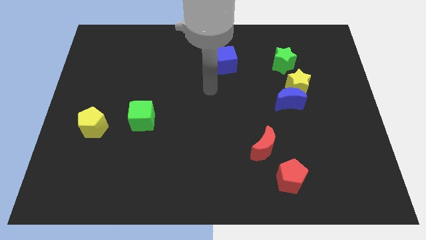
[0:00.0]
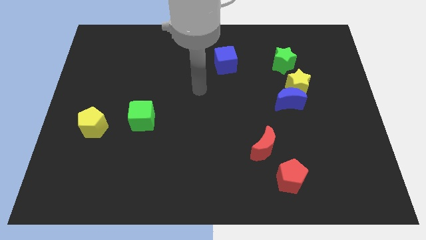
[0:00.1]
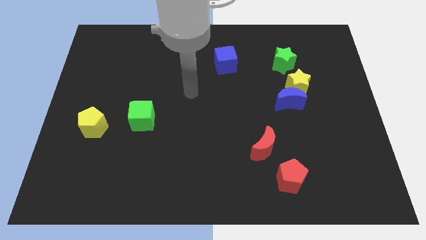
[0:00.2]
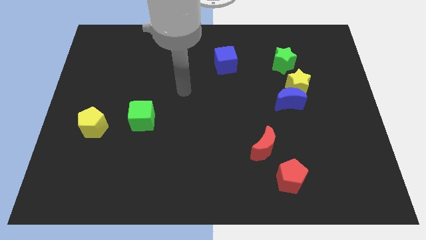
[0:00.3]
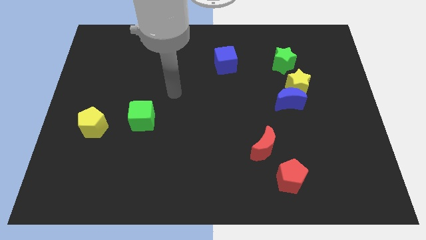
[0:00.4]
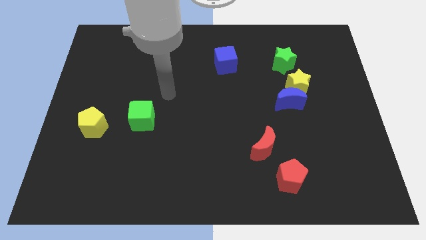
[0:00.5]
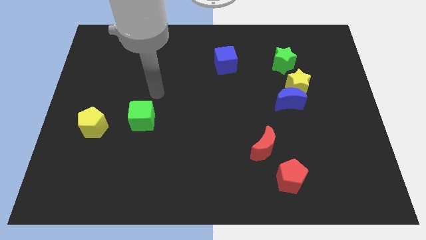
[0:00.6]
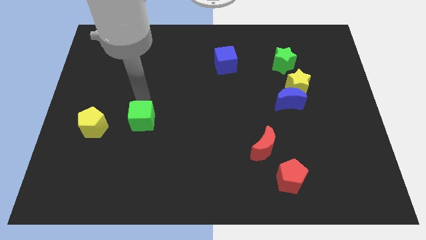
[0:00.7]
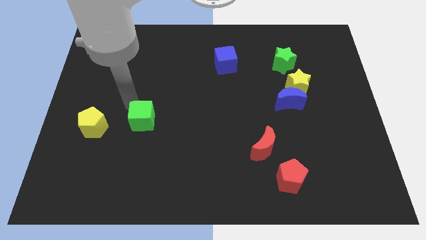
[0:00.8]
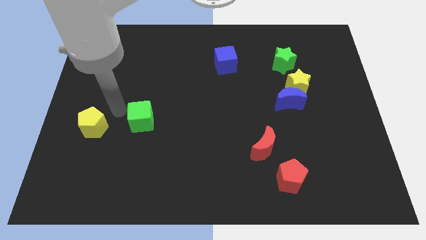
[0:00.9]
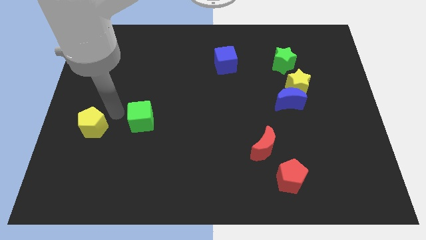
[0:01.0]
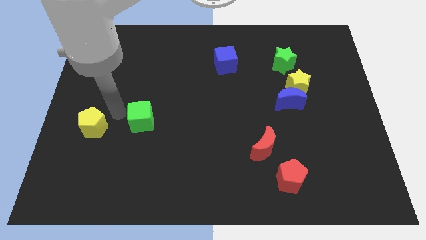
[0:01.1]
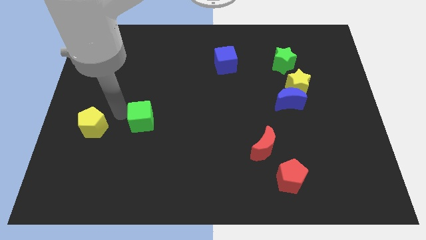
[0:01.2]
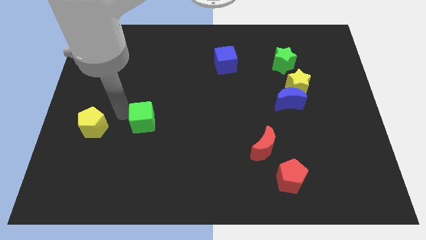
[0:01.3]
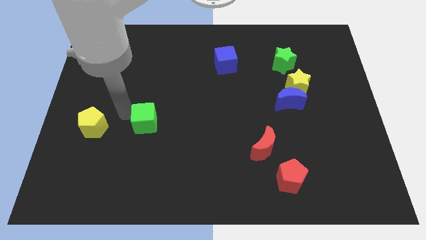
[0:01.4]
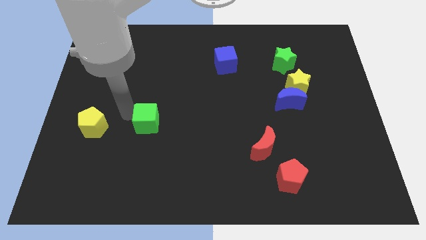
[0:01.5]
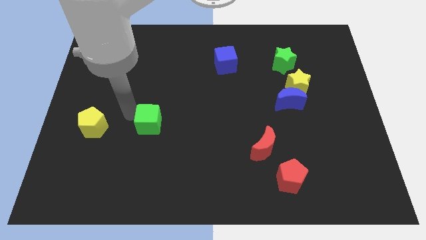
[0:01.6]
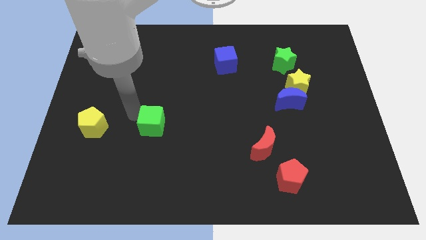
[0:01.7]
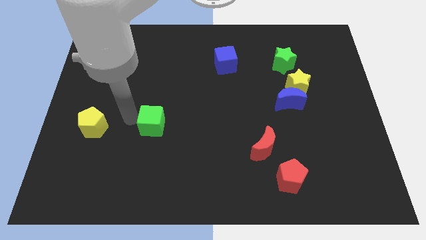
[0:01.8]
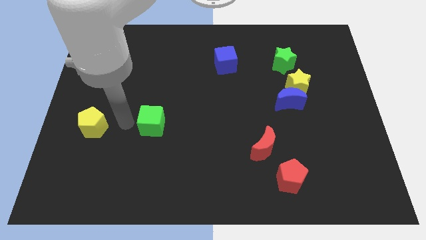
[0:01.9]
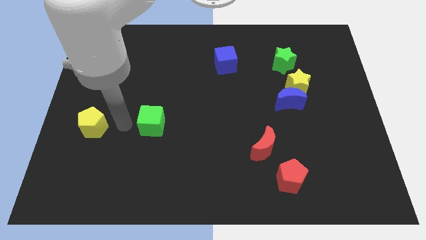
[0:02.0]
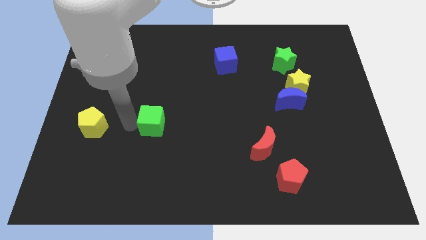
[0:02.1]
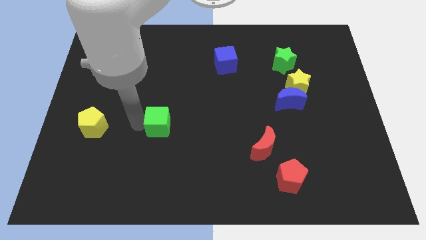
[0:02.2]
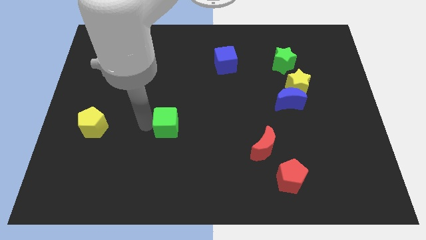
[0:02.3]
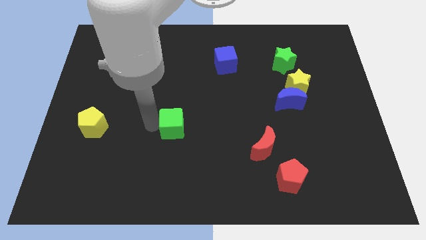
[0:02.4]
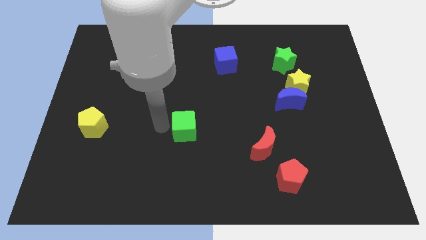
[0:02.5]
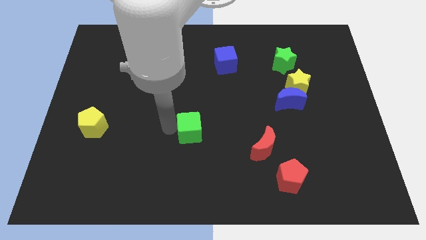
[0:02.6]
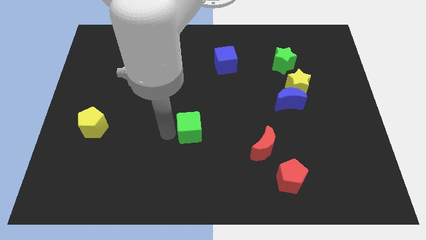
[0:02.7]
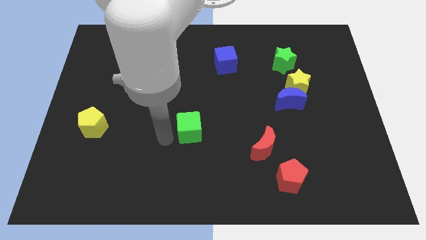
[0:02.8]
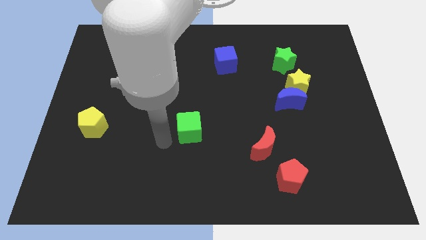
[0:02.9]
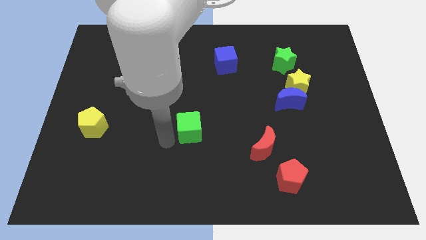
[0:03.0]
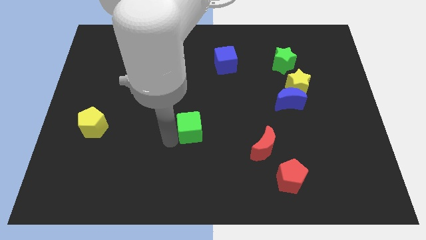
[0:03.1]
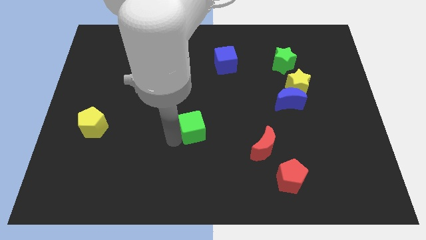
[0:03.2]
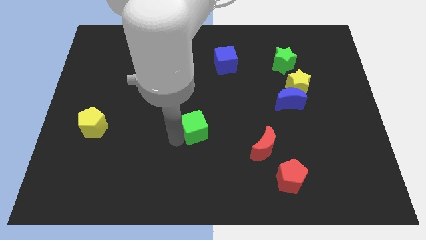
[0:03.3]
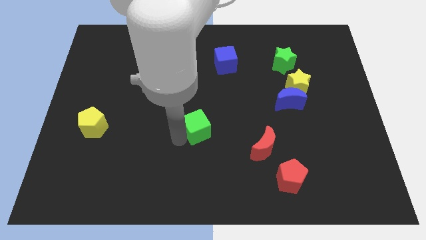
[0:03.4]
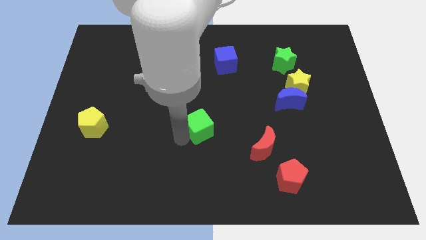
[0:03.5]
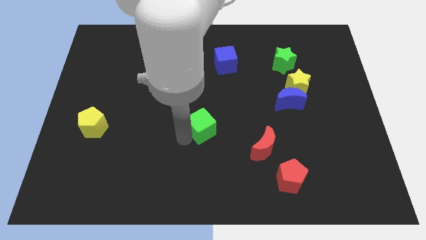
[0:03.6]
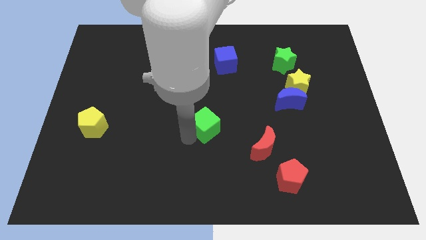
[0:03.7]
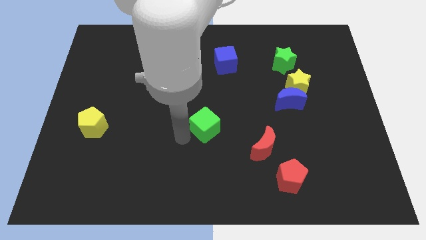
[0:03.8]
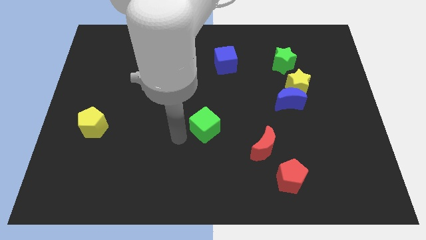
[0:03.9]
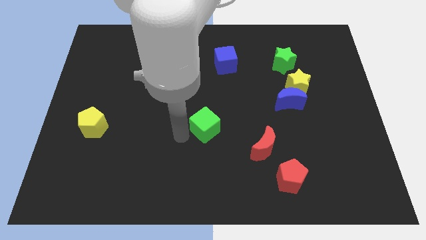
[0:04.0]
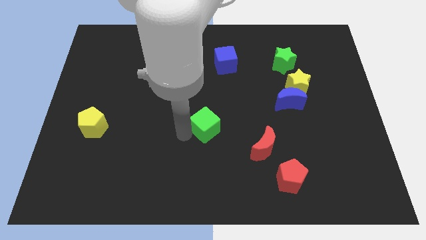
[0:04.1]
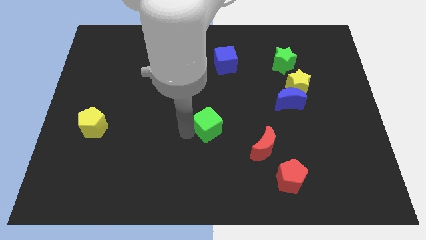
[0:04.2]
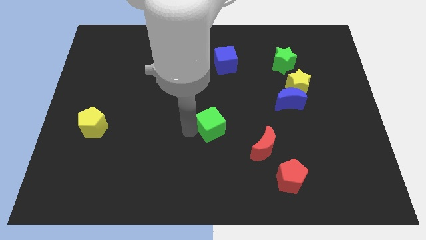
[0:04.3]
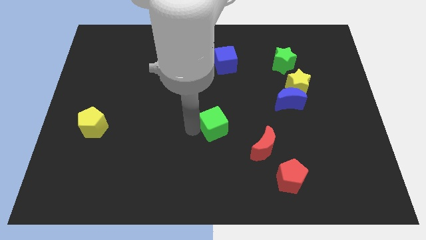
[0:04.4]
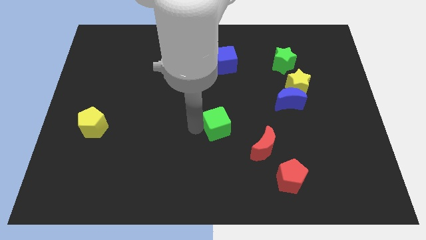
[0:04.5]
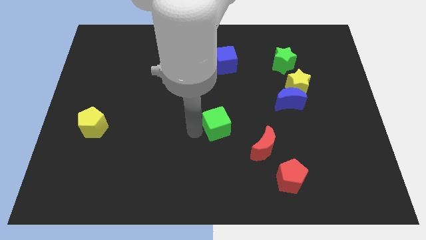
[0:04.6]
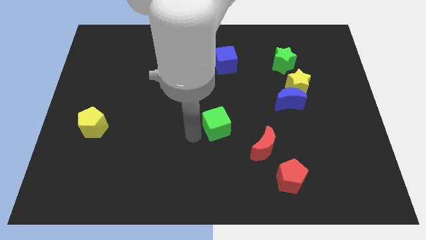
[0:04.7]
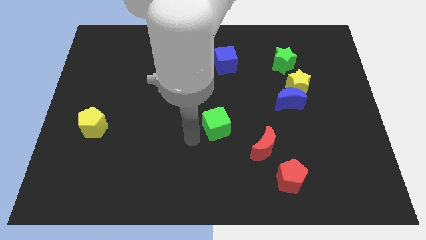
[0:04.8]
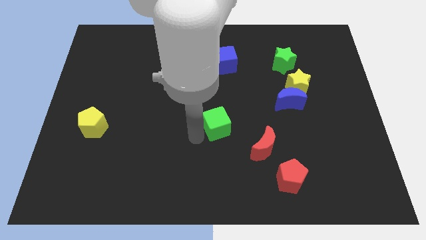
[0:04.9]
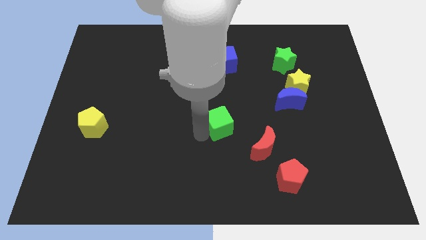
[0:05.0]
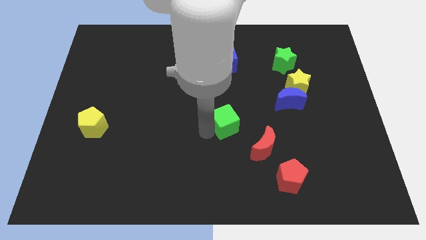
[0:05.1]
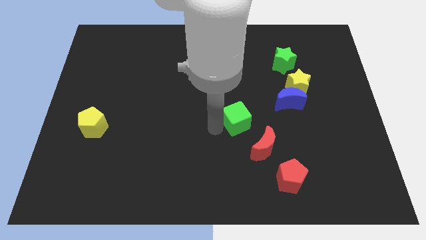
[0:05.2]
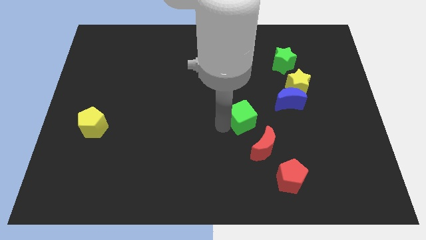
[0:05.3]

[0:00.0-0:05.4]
push the green cube above the red moon
